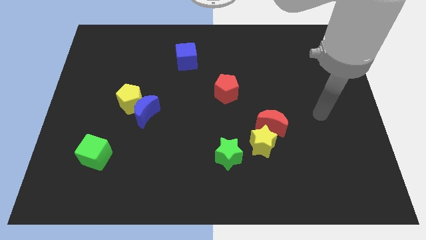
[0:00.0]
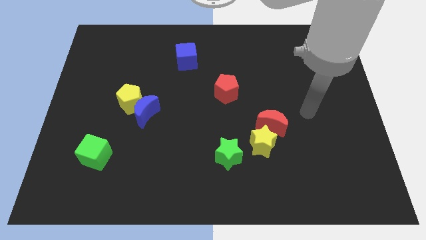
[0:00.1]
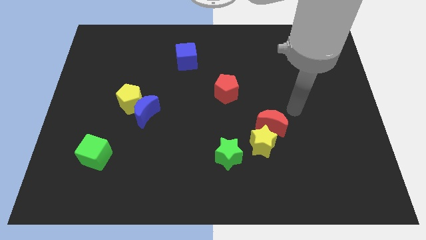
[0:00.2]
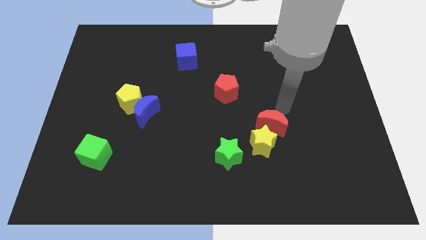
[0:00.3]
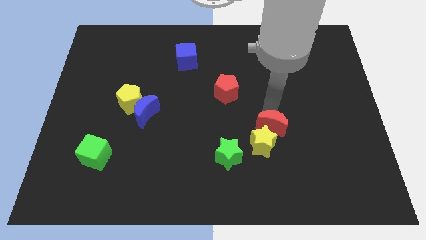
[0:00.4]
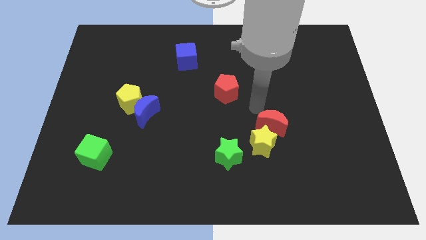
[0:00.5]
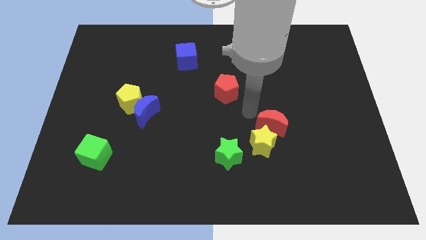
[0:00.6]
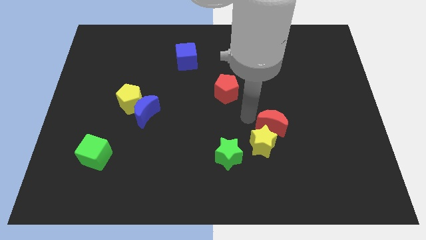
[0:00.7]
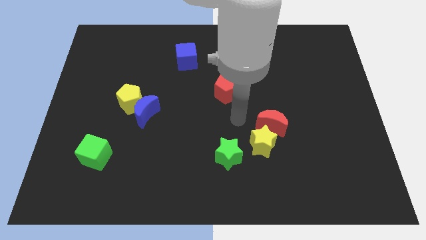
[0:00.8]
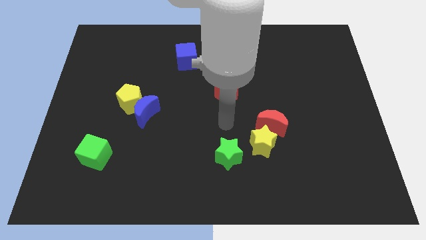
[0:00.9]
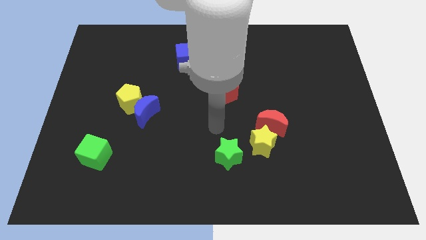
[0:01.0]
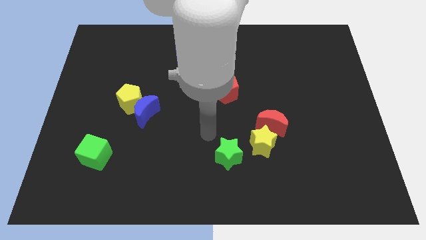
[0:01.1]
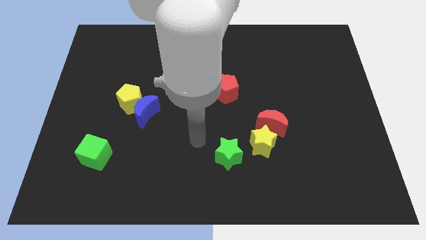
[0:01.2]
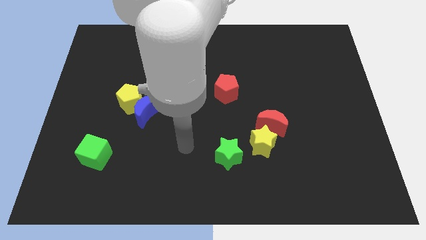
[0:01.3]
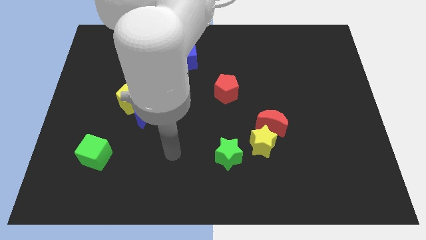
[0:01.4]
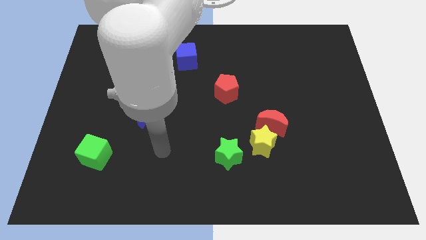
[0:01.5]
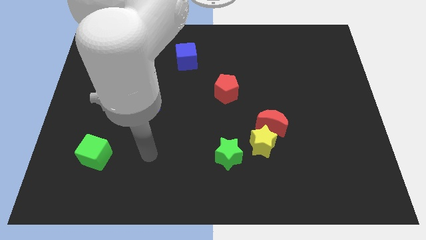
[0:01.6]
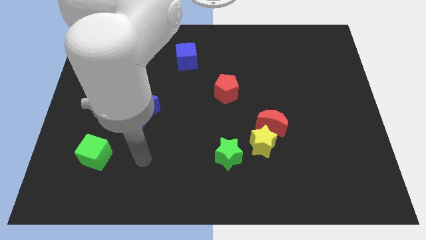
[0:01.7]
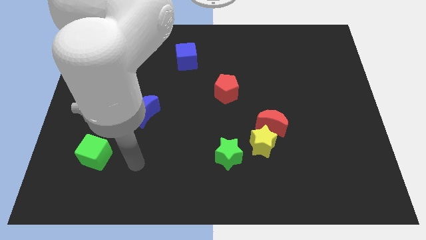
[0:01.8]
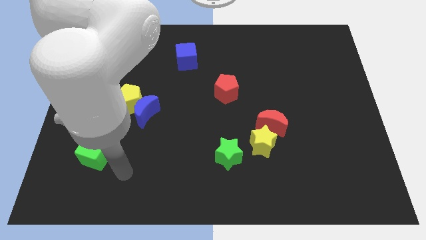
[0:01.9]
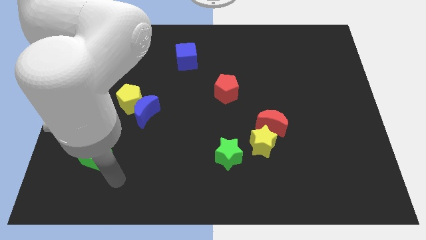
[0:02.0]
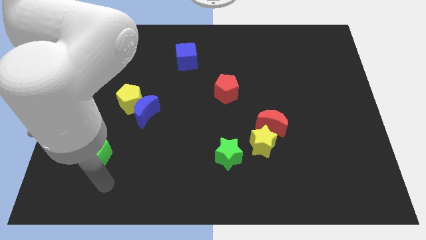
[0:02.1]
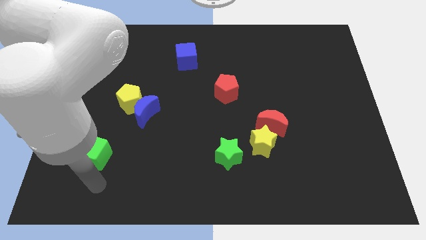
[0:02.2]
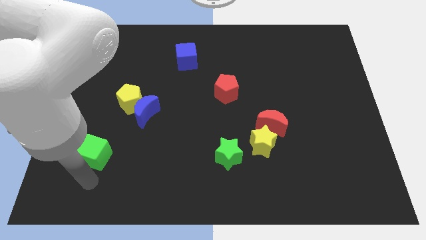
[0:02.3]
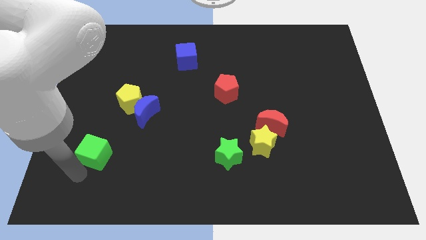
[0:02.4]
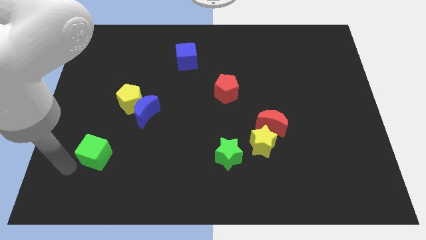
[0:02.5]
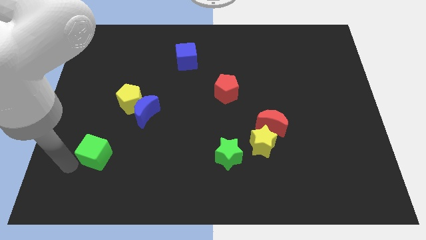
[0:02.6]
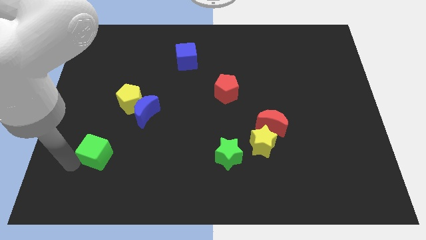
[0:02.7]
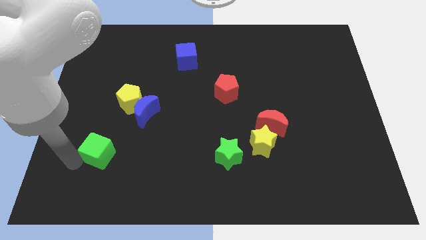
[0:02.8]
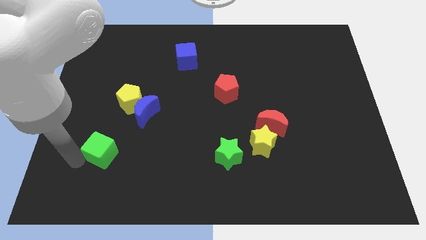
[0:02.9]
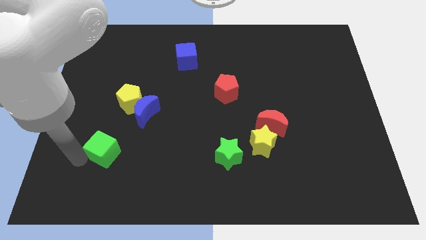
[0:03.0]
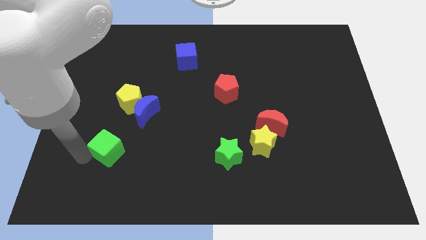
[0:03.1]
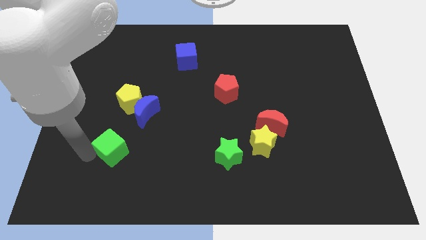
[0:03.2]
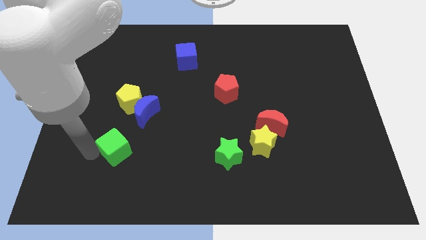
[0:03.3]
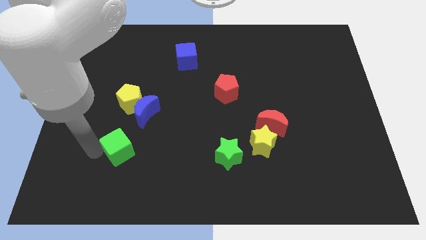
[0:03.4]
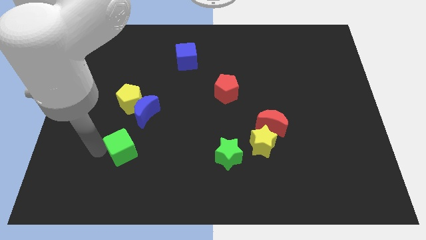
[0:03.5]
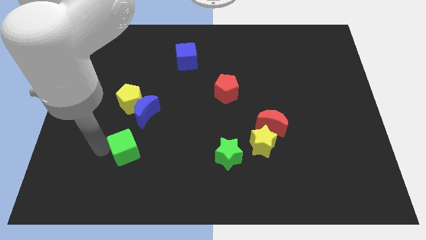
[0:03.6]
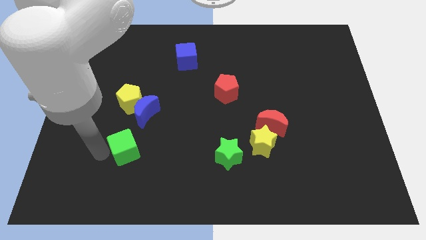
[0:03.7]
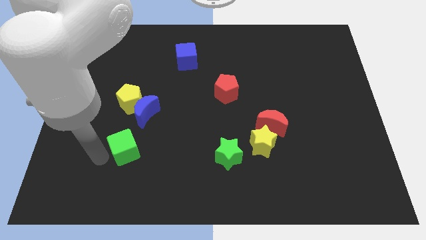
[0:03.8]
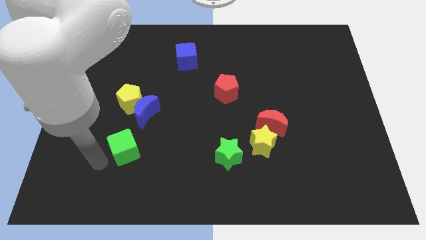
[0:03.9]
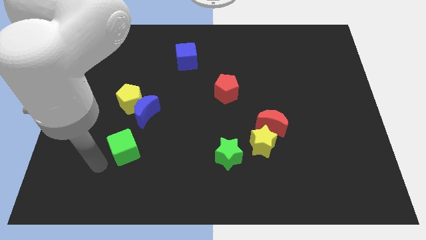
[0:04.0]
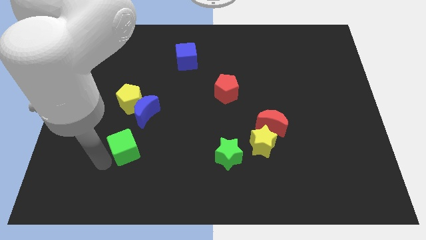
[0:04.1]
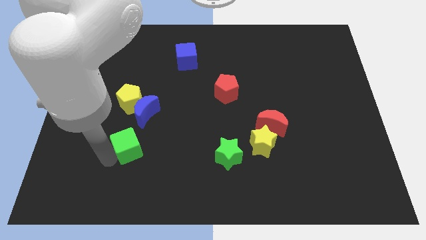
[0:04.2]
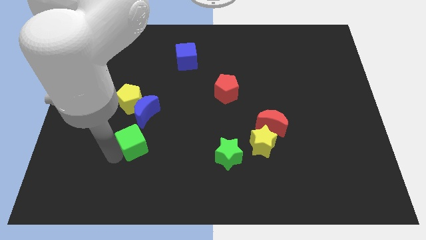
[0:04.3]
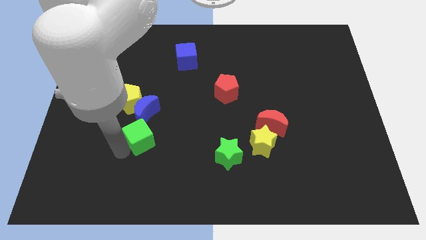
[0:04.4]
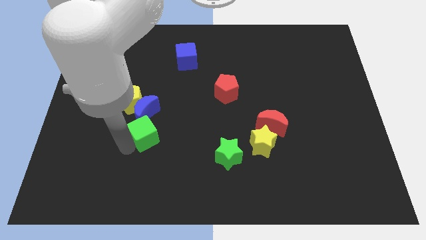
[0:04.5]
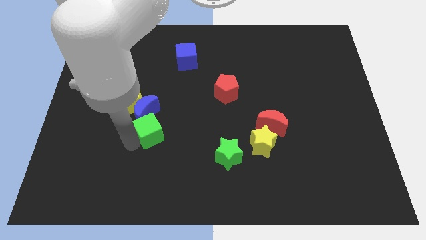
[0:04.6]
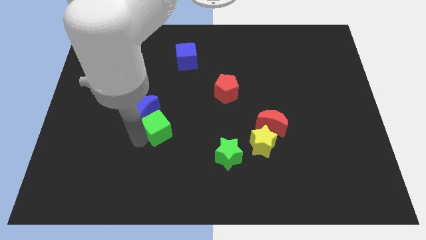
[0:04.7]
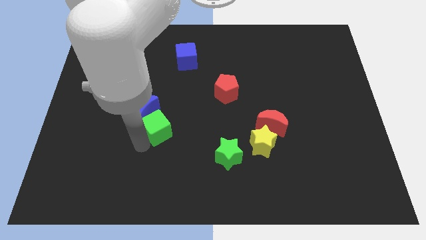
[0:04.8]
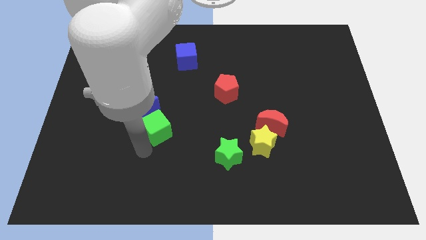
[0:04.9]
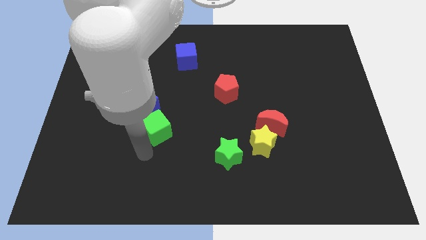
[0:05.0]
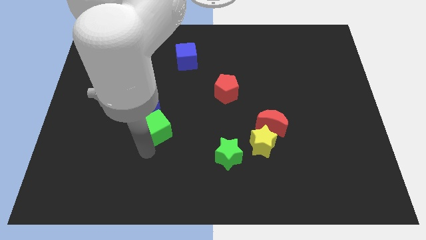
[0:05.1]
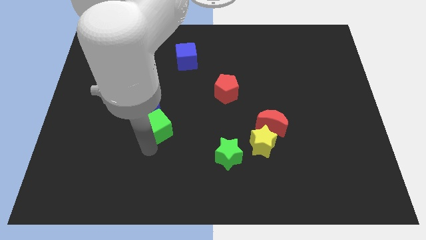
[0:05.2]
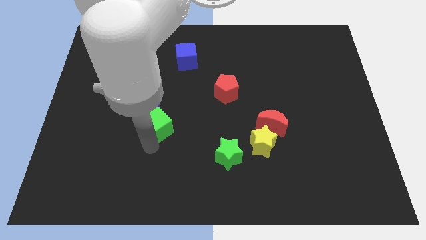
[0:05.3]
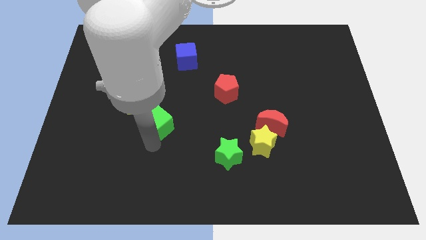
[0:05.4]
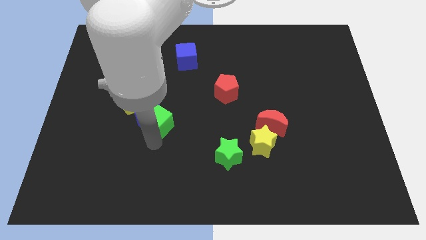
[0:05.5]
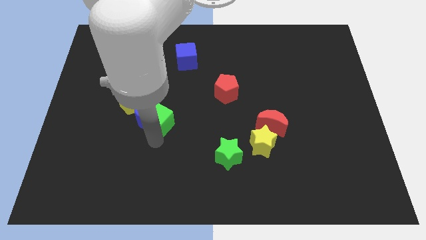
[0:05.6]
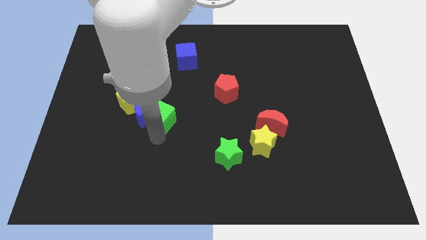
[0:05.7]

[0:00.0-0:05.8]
put the green cube to the top right side of the blue moon
